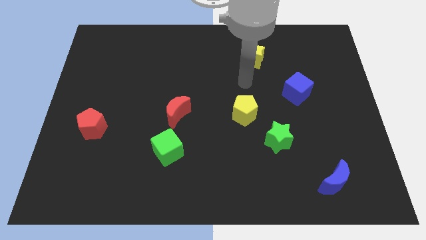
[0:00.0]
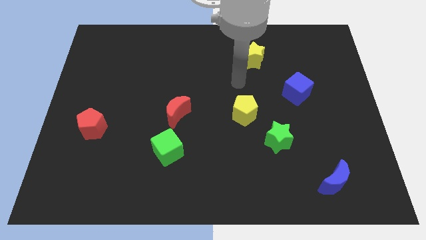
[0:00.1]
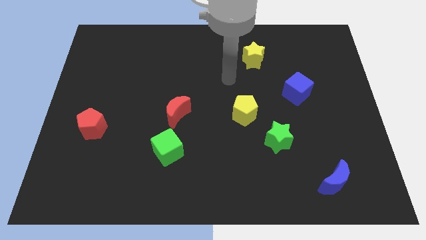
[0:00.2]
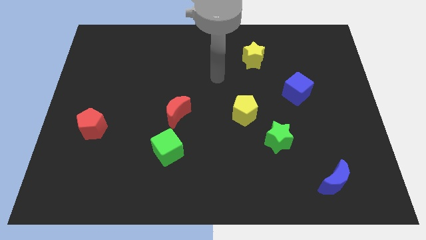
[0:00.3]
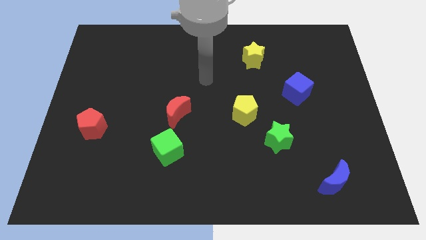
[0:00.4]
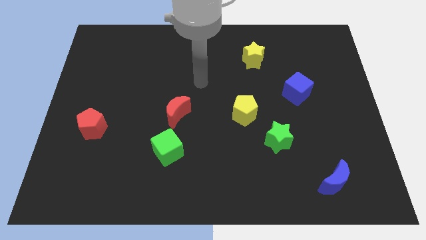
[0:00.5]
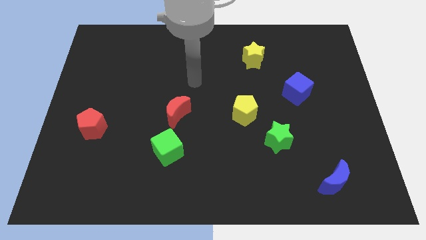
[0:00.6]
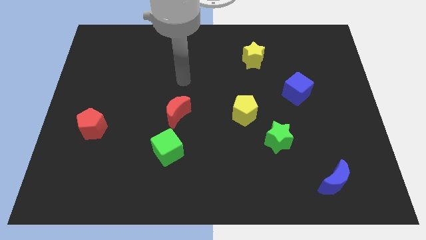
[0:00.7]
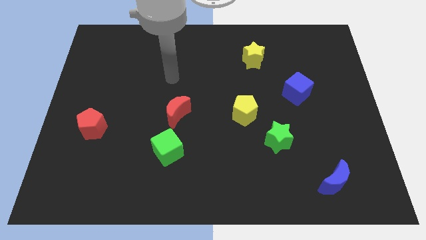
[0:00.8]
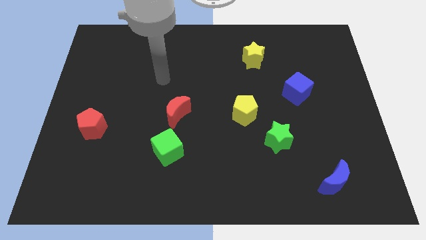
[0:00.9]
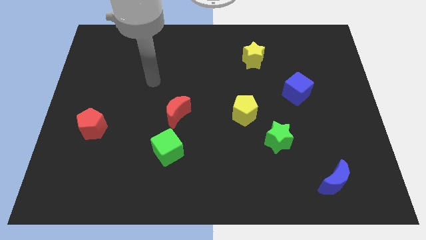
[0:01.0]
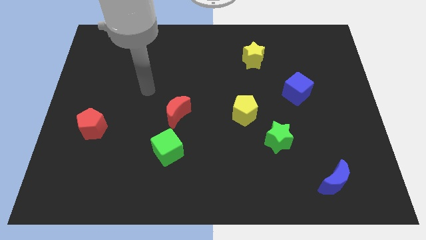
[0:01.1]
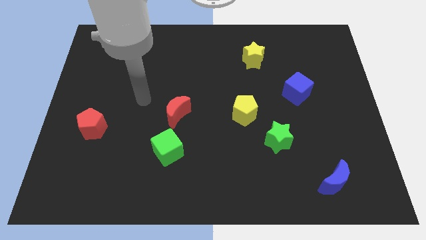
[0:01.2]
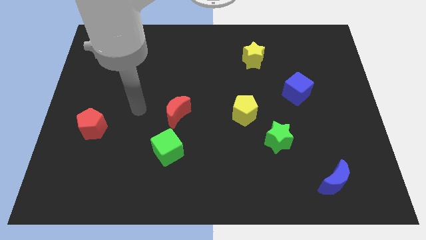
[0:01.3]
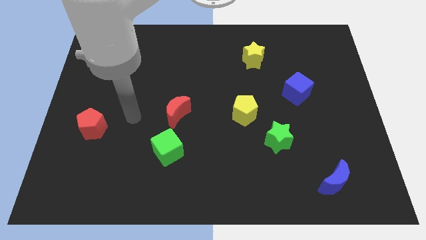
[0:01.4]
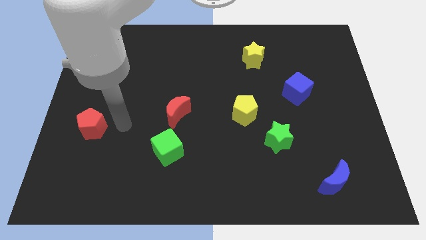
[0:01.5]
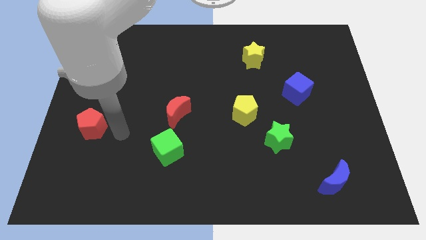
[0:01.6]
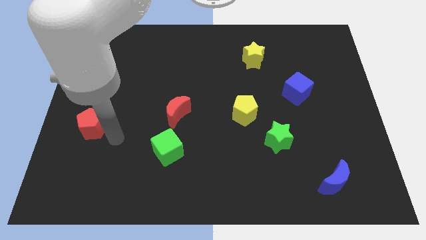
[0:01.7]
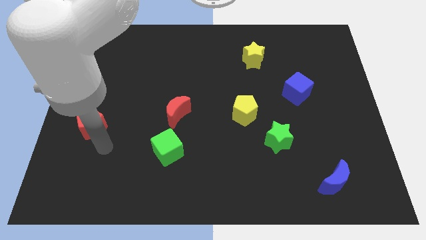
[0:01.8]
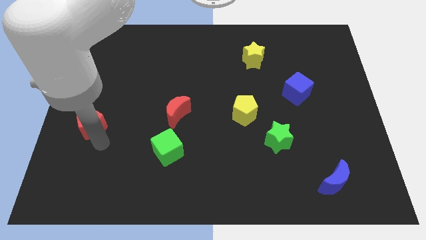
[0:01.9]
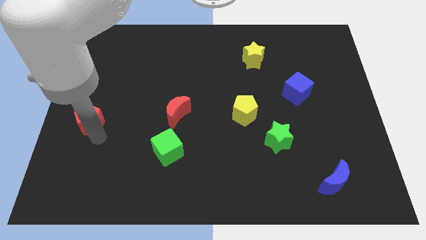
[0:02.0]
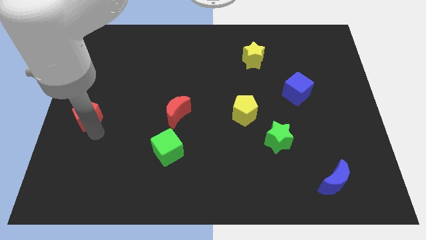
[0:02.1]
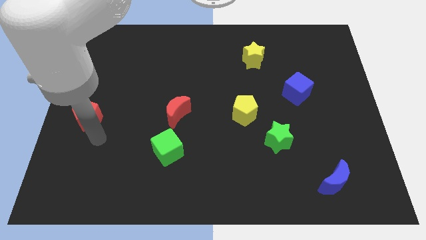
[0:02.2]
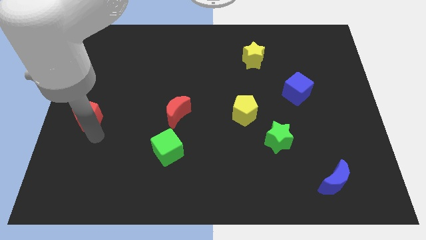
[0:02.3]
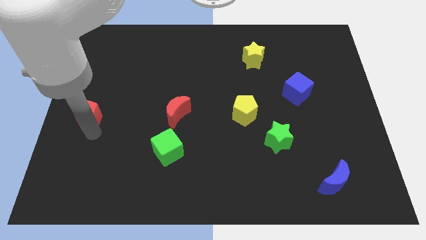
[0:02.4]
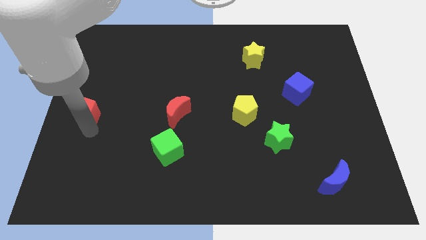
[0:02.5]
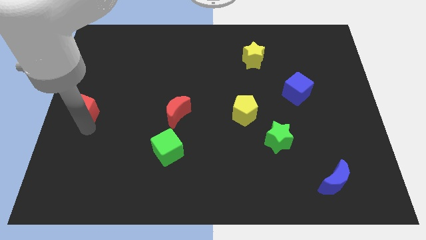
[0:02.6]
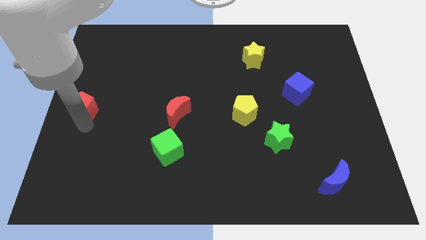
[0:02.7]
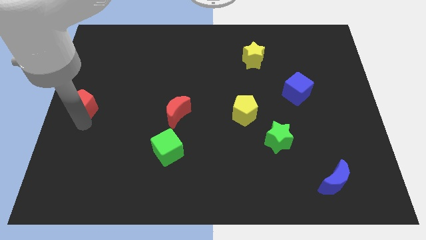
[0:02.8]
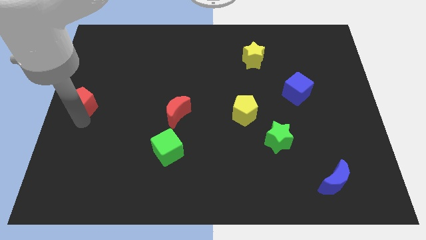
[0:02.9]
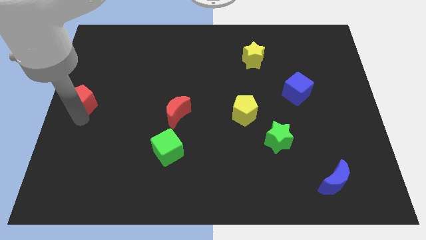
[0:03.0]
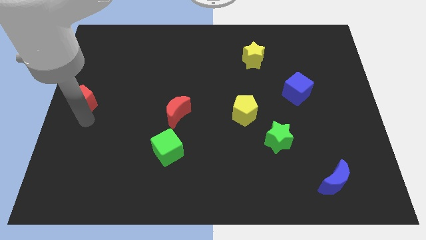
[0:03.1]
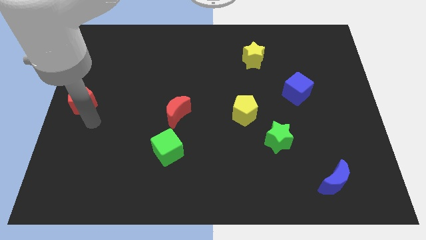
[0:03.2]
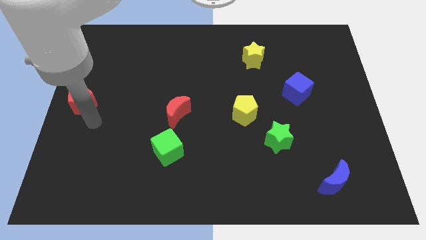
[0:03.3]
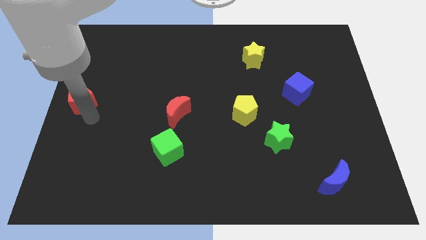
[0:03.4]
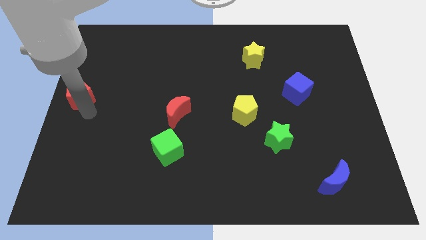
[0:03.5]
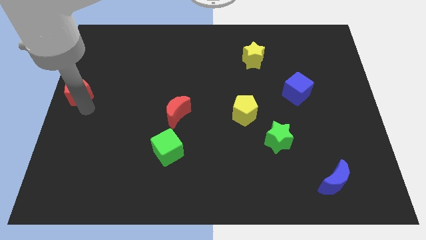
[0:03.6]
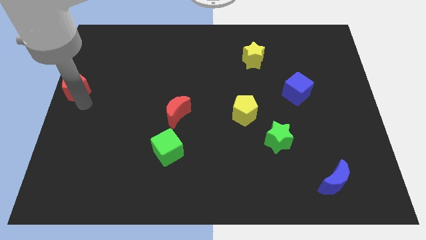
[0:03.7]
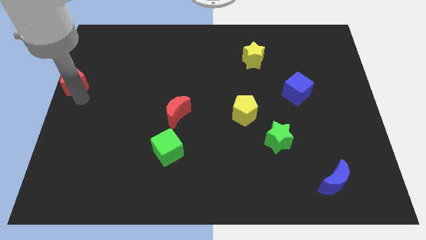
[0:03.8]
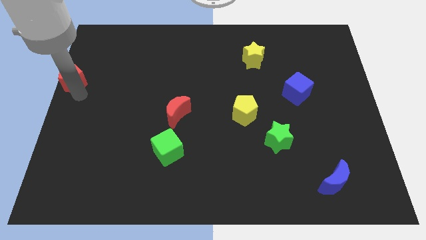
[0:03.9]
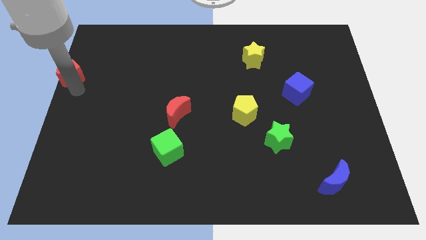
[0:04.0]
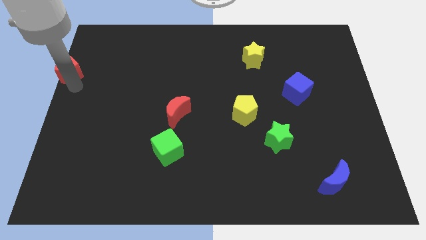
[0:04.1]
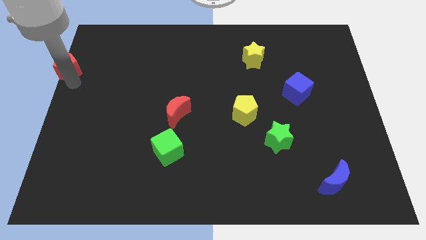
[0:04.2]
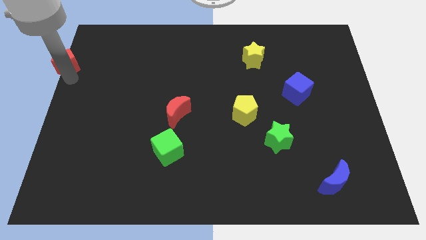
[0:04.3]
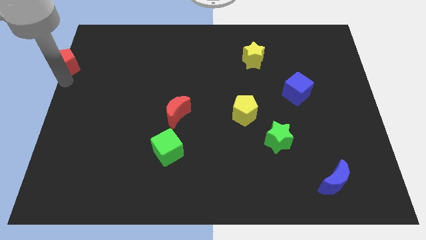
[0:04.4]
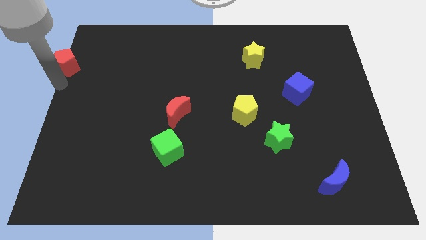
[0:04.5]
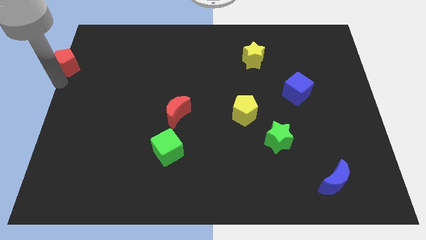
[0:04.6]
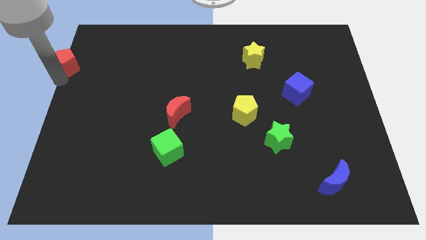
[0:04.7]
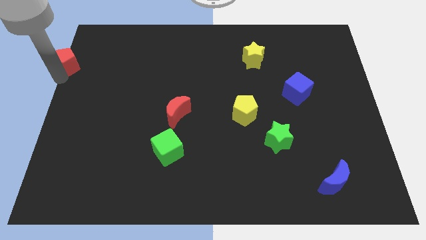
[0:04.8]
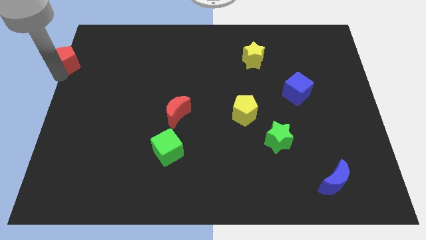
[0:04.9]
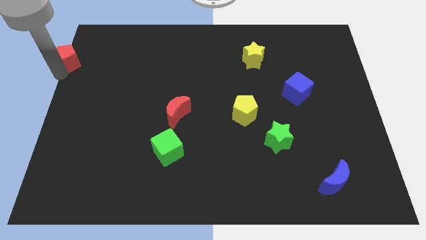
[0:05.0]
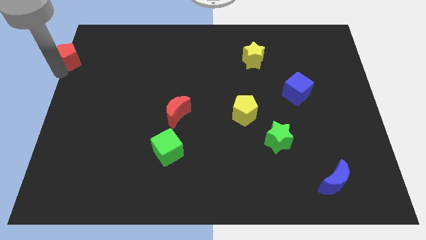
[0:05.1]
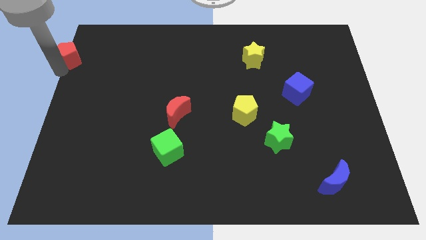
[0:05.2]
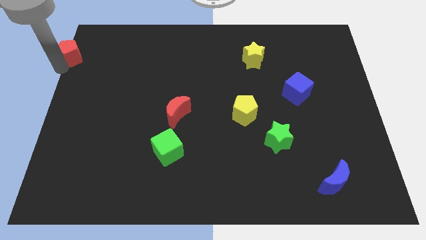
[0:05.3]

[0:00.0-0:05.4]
push the red pentagon to the upper left corner

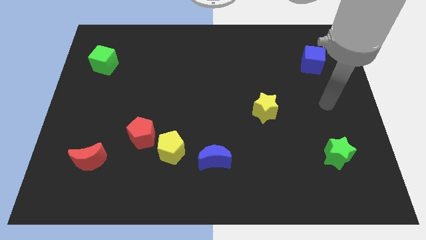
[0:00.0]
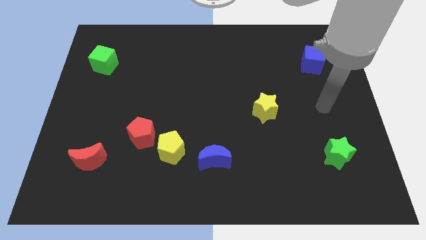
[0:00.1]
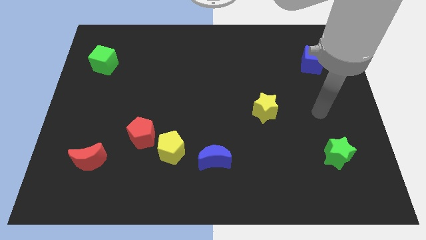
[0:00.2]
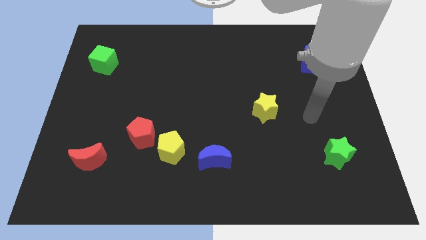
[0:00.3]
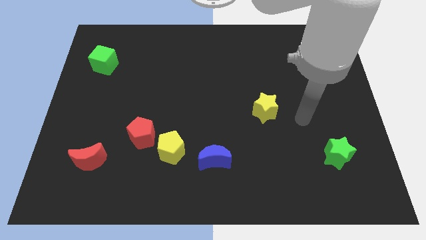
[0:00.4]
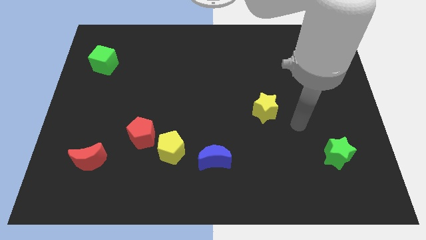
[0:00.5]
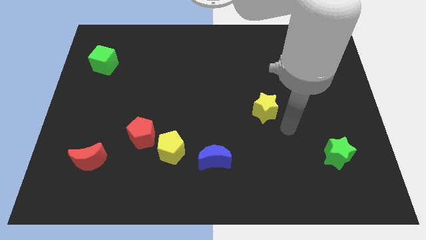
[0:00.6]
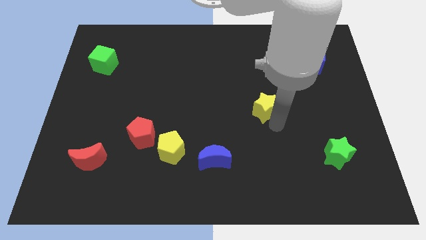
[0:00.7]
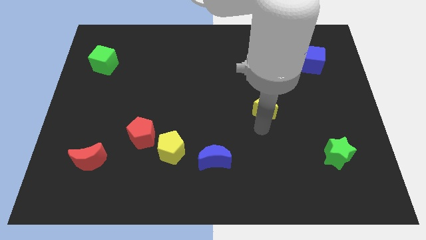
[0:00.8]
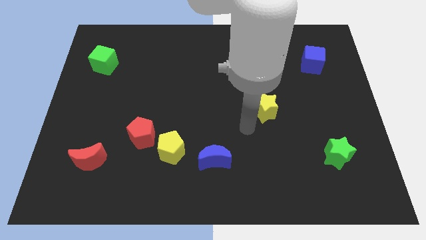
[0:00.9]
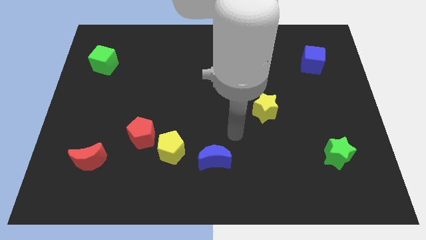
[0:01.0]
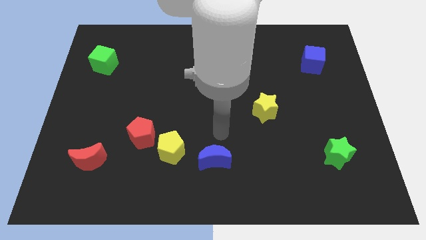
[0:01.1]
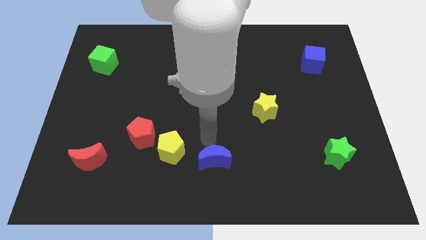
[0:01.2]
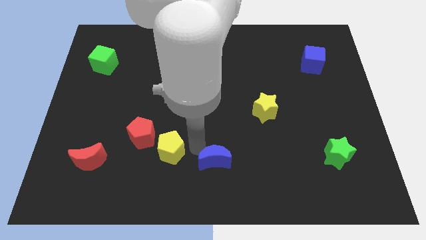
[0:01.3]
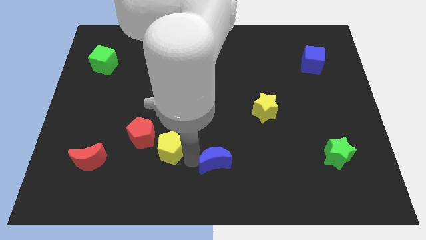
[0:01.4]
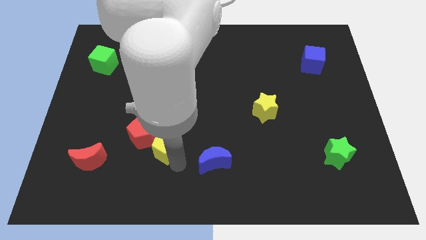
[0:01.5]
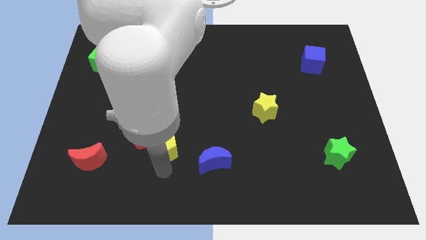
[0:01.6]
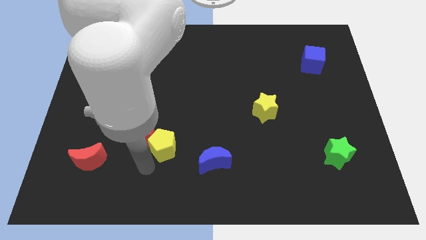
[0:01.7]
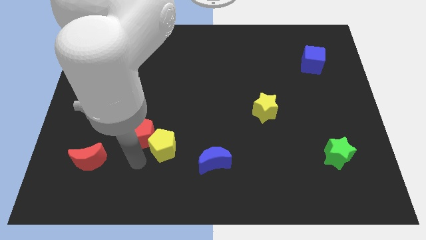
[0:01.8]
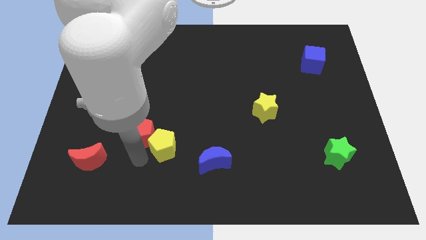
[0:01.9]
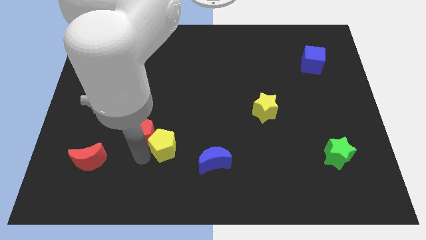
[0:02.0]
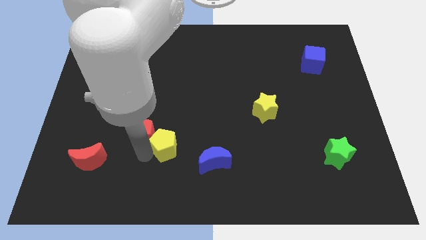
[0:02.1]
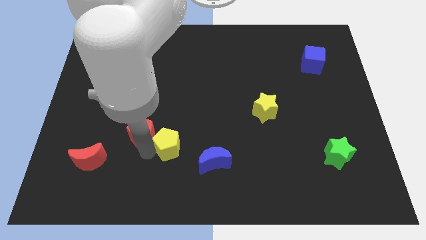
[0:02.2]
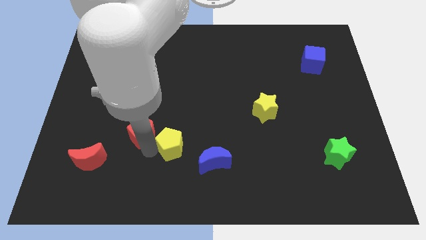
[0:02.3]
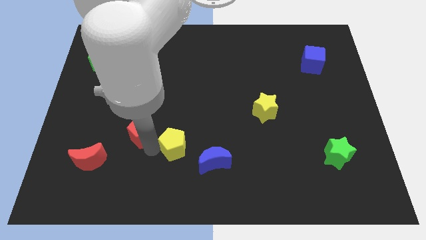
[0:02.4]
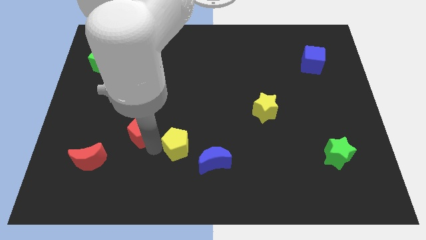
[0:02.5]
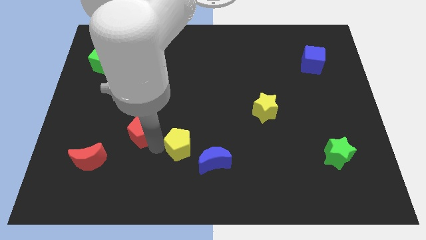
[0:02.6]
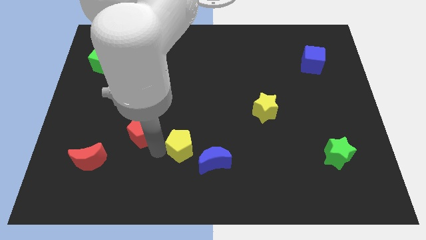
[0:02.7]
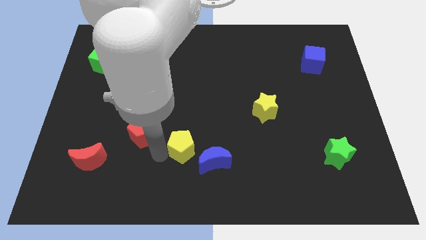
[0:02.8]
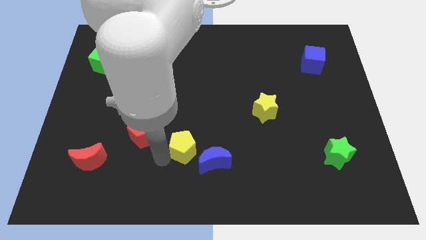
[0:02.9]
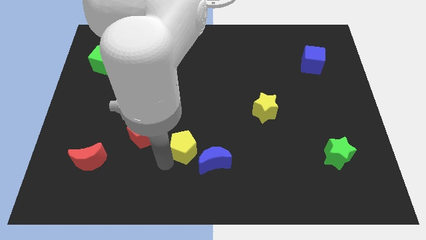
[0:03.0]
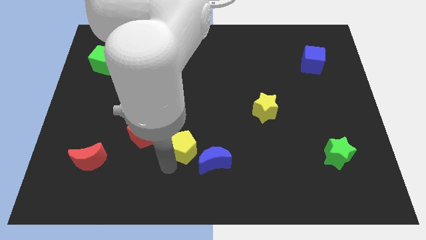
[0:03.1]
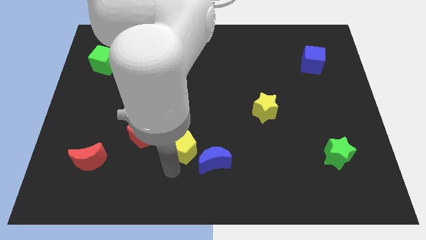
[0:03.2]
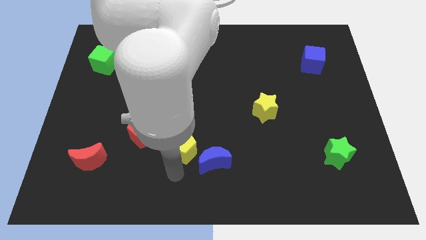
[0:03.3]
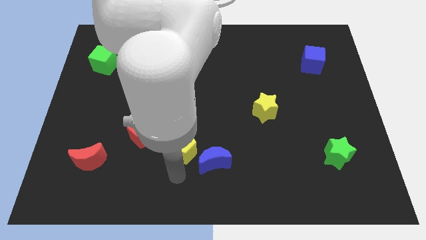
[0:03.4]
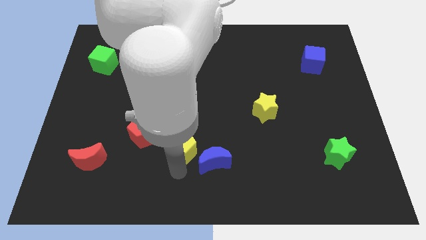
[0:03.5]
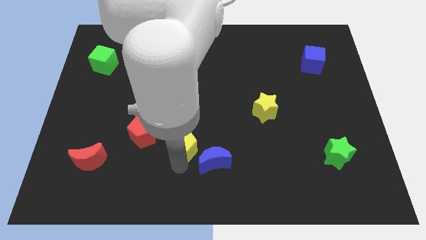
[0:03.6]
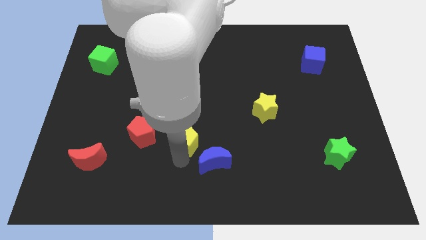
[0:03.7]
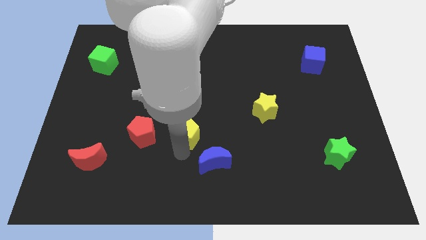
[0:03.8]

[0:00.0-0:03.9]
move the yellow pentagon to the center of the board
